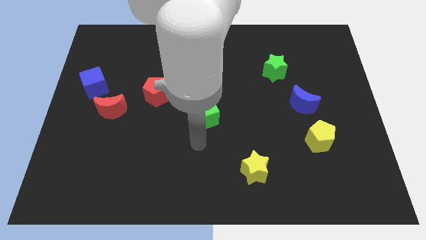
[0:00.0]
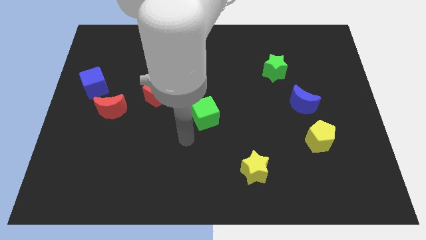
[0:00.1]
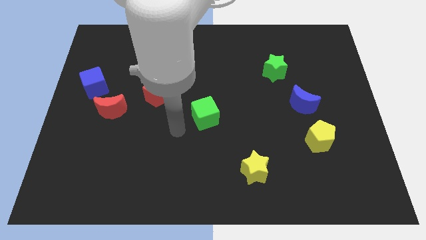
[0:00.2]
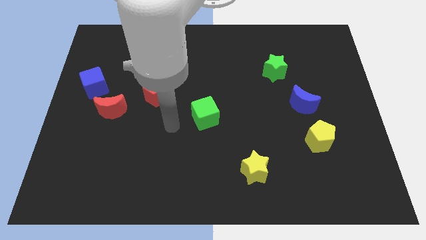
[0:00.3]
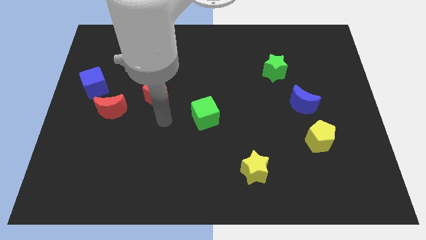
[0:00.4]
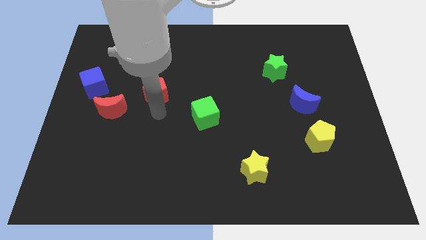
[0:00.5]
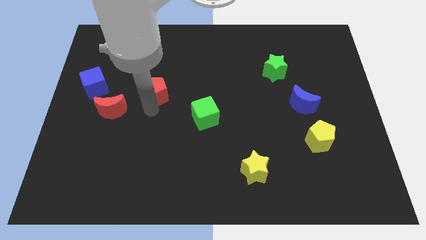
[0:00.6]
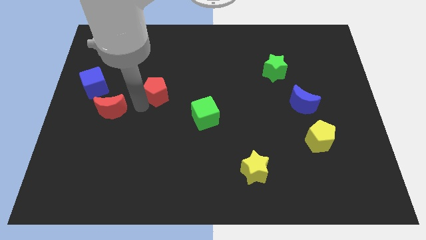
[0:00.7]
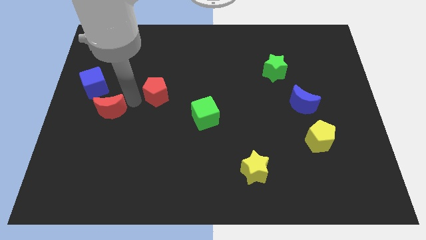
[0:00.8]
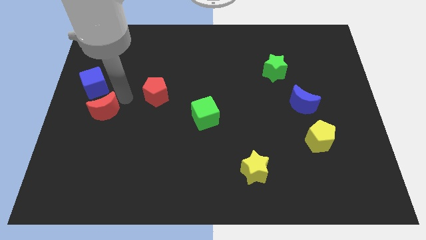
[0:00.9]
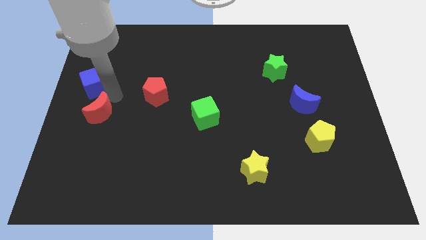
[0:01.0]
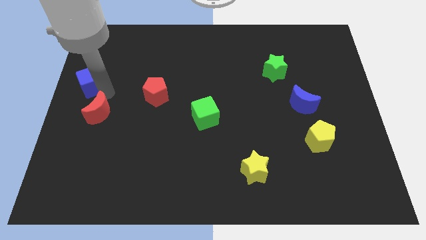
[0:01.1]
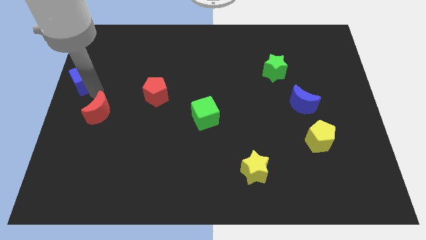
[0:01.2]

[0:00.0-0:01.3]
move the red moon away from the blue cube

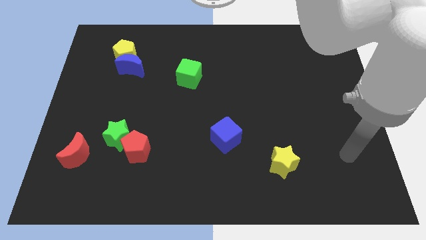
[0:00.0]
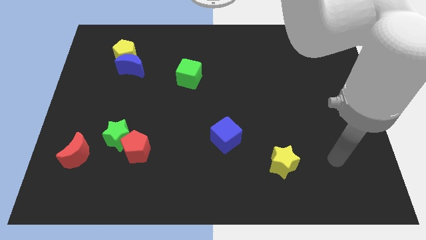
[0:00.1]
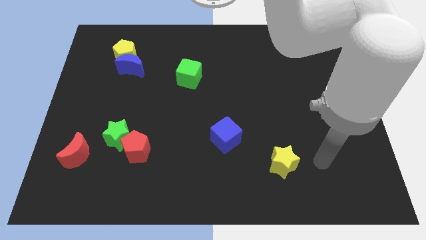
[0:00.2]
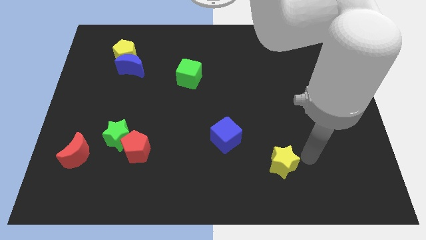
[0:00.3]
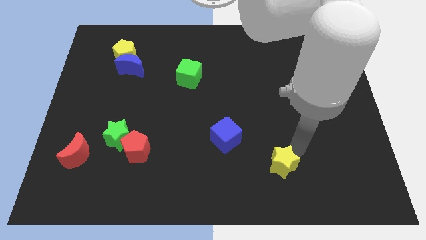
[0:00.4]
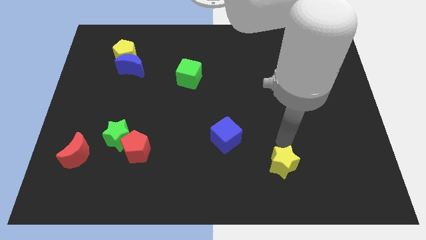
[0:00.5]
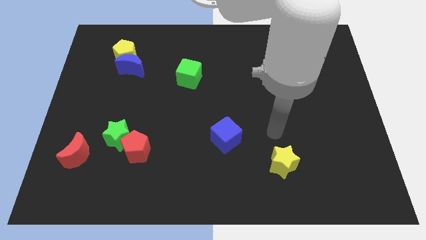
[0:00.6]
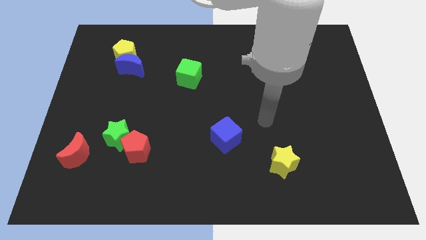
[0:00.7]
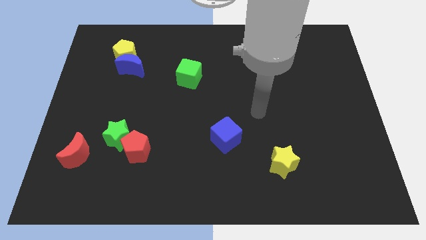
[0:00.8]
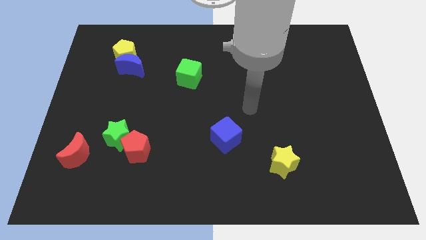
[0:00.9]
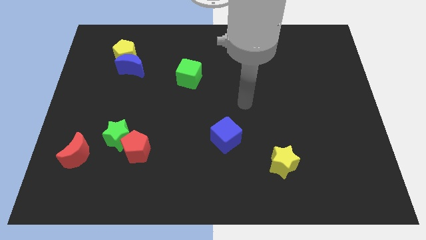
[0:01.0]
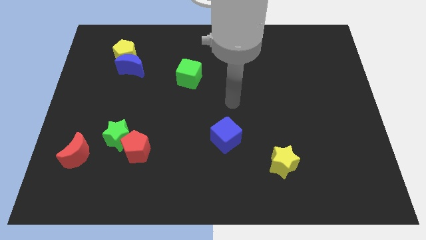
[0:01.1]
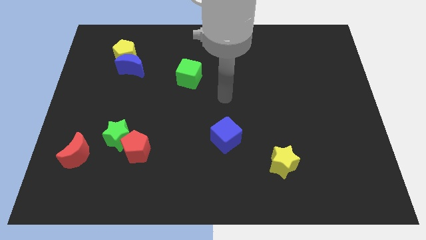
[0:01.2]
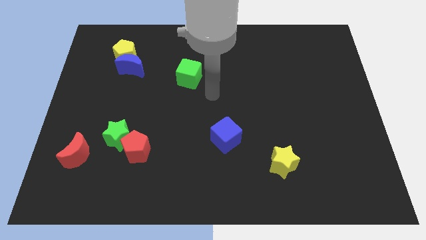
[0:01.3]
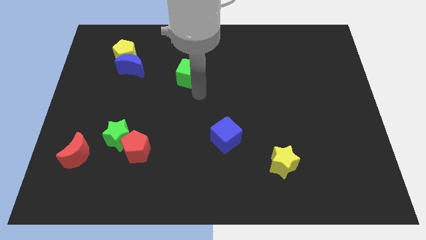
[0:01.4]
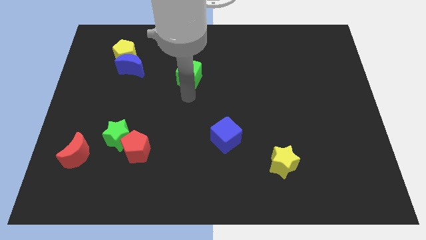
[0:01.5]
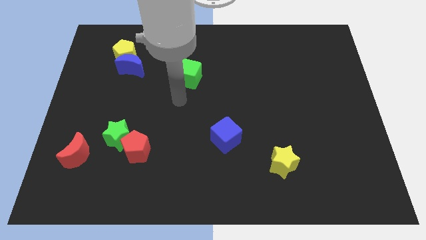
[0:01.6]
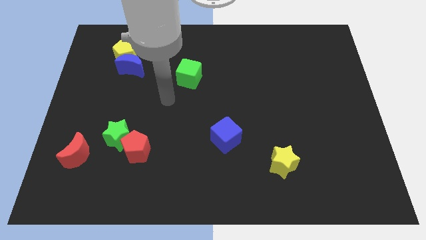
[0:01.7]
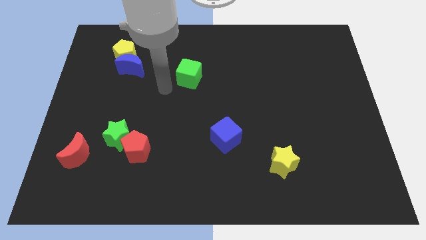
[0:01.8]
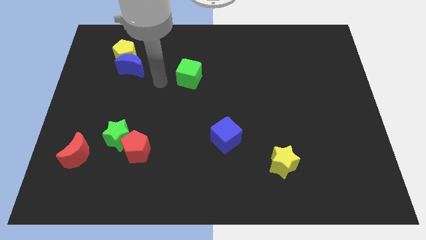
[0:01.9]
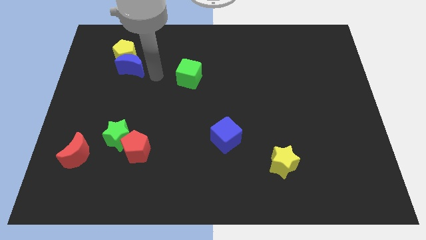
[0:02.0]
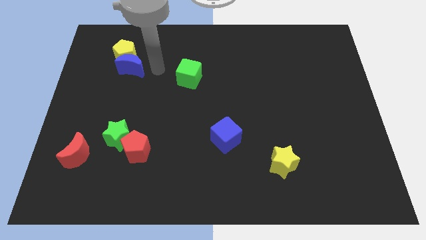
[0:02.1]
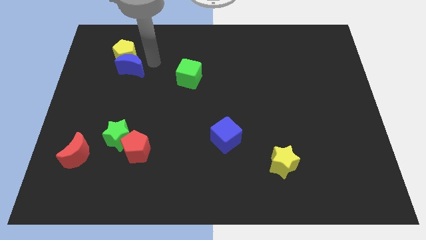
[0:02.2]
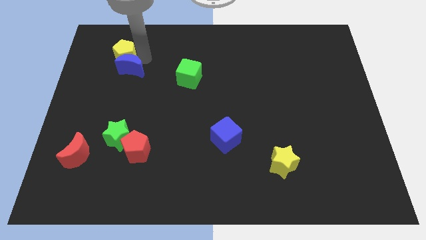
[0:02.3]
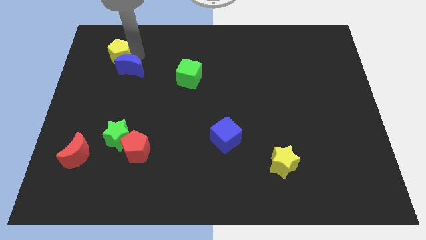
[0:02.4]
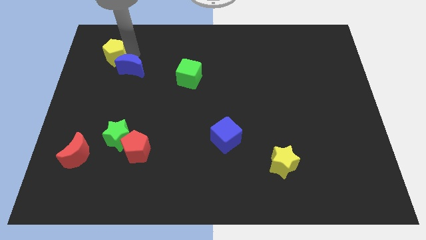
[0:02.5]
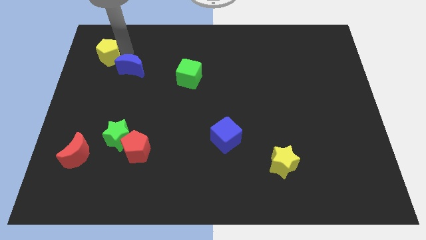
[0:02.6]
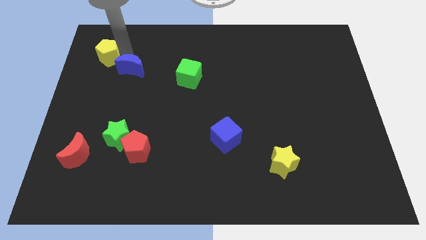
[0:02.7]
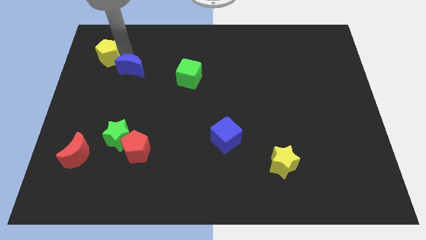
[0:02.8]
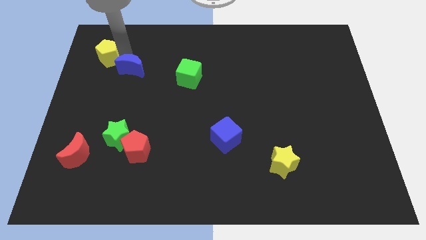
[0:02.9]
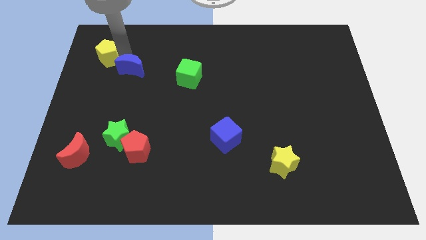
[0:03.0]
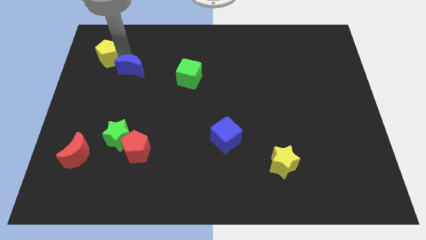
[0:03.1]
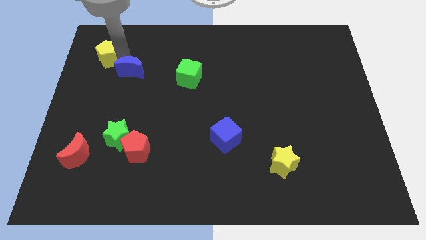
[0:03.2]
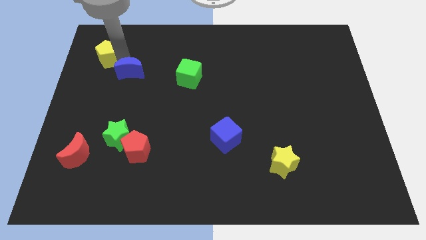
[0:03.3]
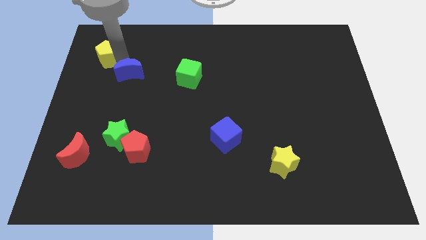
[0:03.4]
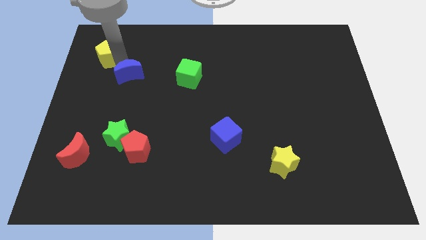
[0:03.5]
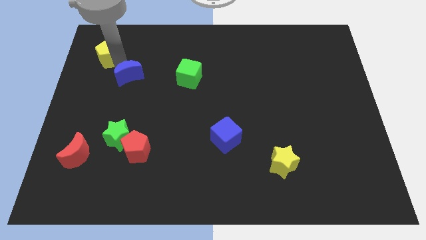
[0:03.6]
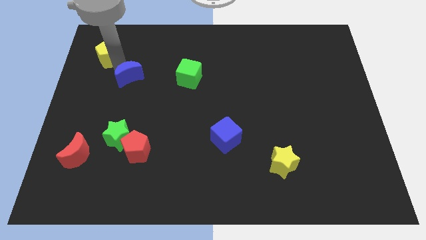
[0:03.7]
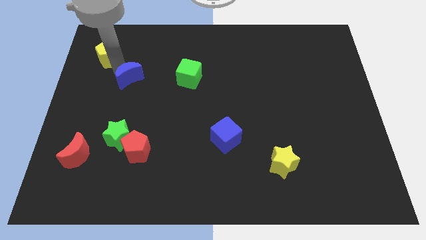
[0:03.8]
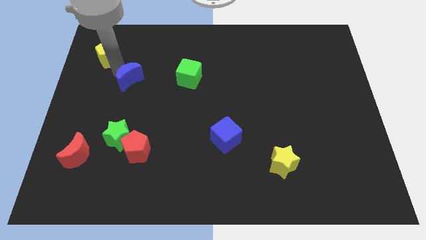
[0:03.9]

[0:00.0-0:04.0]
separate the blue moon from the yellow pentagon

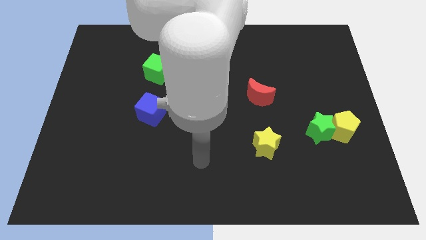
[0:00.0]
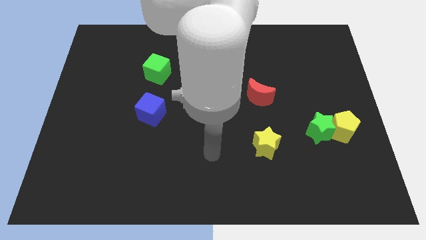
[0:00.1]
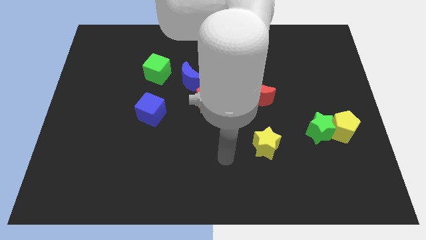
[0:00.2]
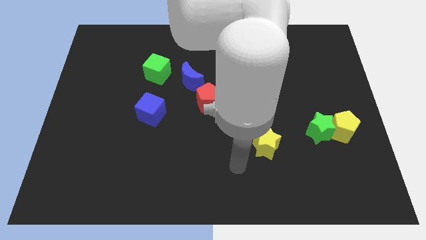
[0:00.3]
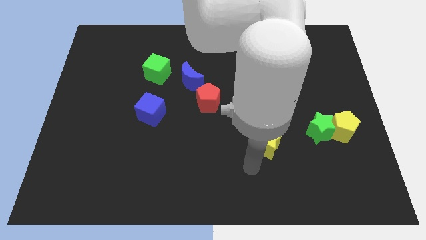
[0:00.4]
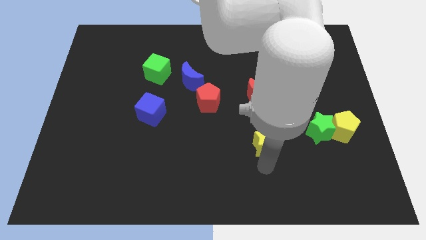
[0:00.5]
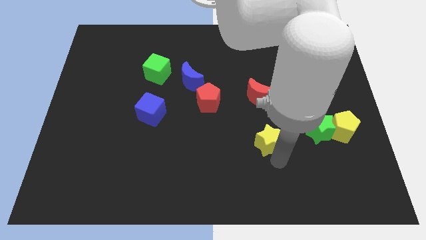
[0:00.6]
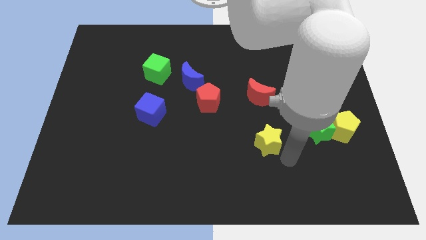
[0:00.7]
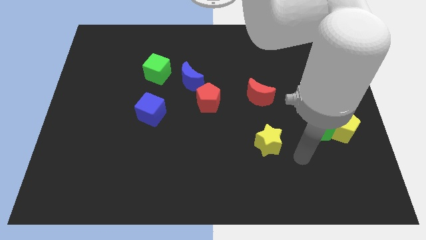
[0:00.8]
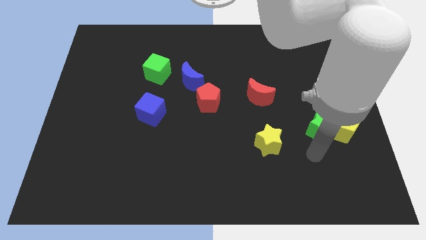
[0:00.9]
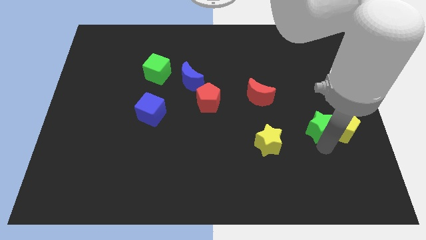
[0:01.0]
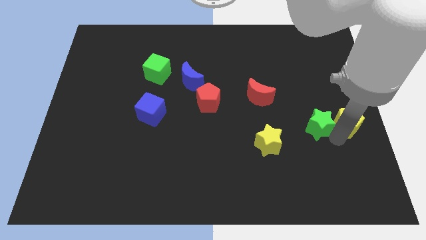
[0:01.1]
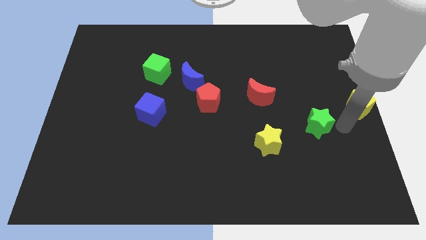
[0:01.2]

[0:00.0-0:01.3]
pull the green star apart from the yellow pentagon

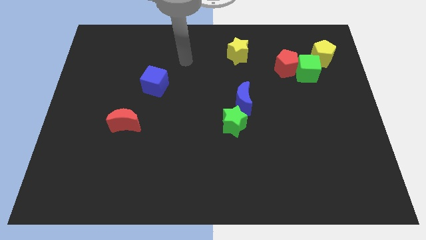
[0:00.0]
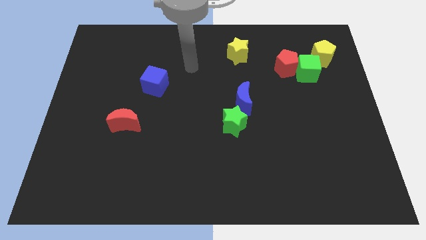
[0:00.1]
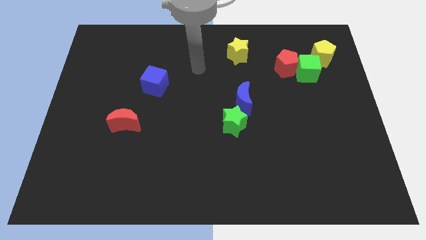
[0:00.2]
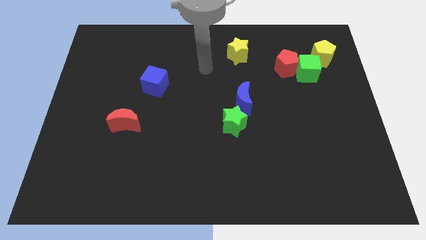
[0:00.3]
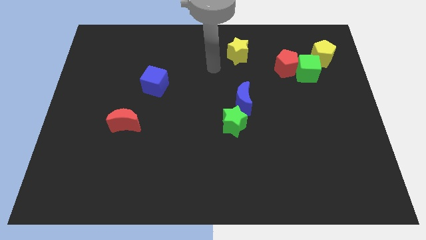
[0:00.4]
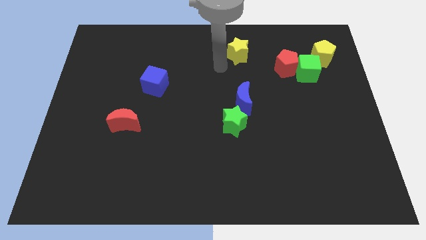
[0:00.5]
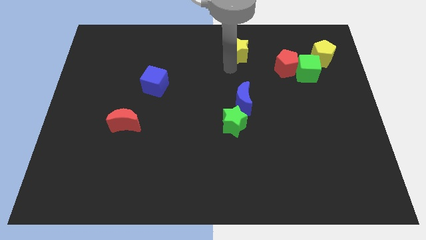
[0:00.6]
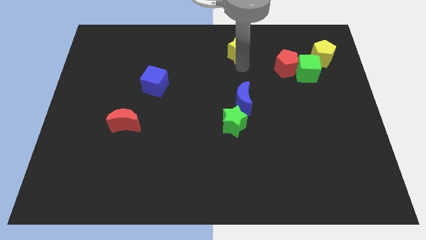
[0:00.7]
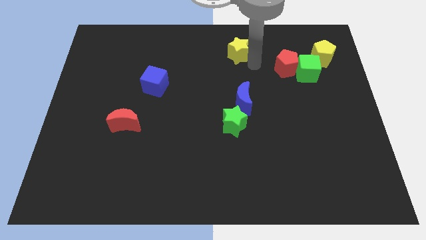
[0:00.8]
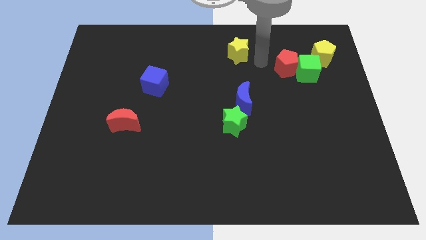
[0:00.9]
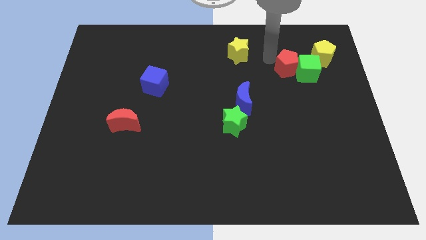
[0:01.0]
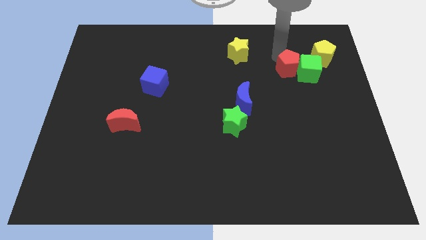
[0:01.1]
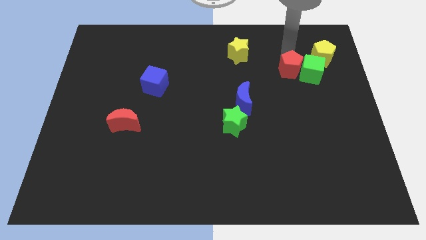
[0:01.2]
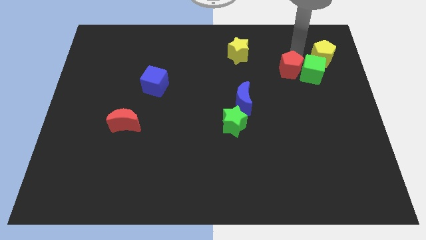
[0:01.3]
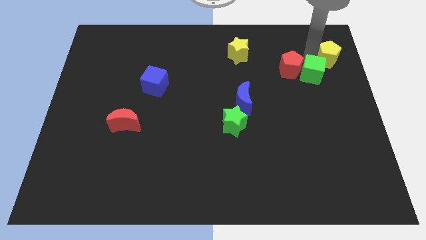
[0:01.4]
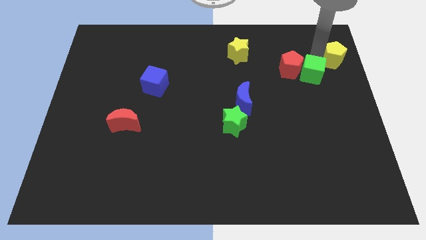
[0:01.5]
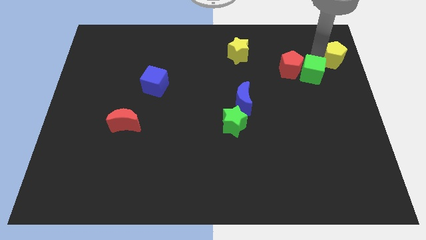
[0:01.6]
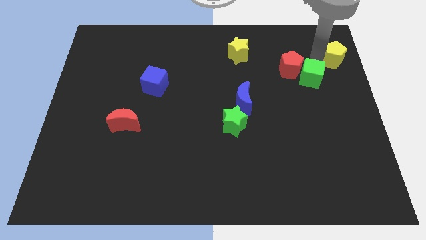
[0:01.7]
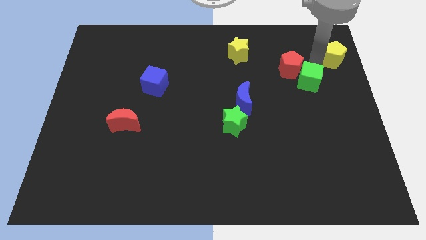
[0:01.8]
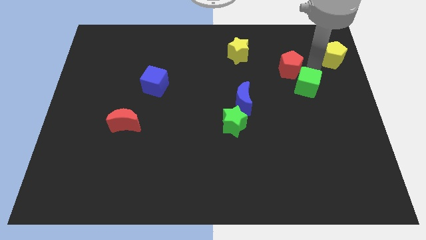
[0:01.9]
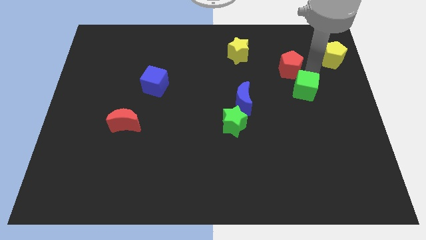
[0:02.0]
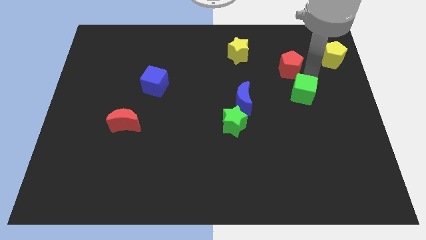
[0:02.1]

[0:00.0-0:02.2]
move the green cube away from the red pentagon and yellow pentagon

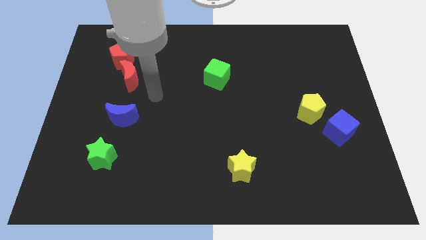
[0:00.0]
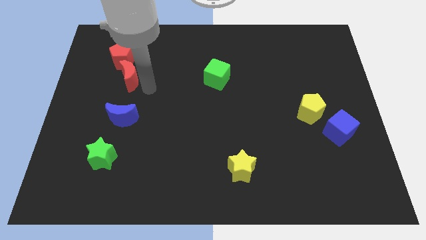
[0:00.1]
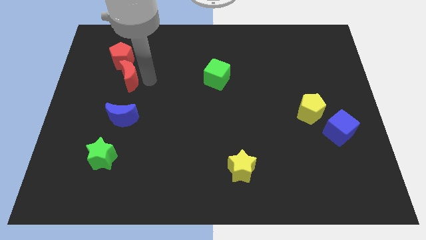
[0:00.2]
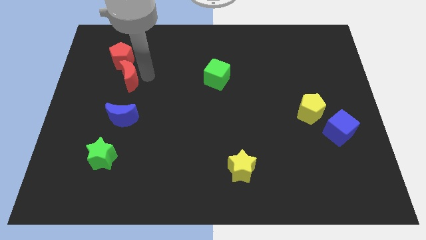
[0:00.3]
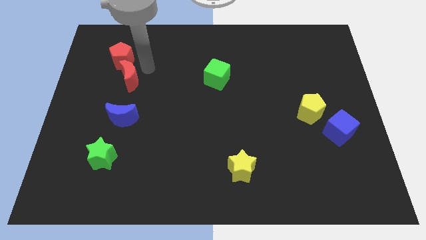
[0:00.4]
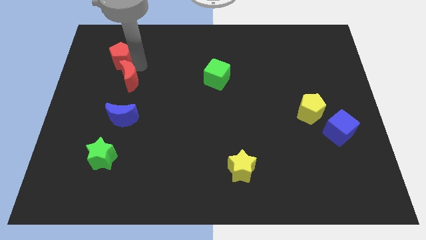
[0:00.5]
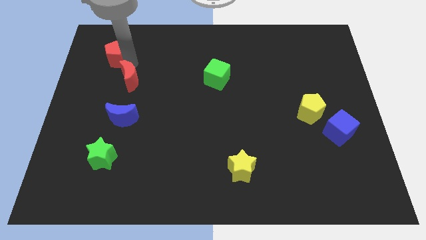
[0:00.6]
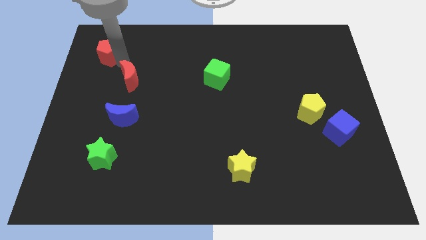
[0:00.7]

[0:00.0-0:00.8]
move the red moon away from the red pentagon
